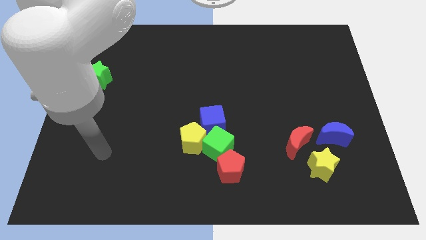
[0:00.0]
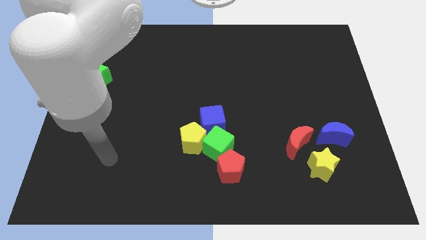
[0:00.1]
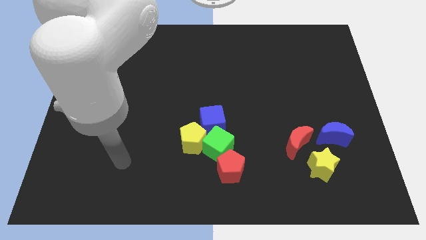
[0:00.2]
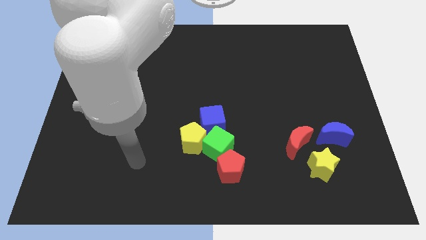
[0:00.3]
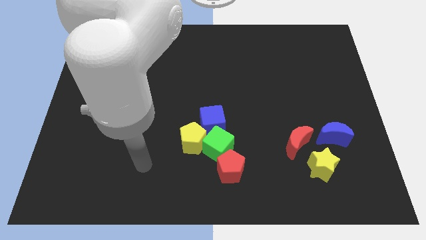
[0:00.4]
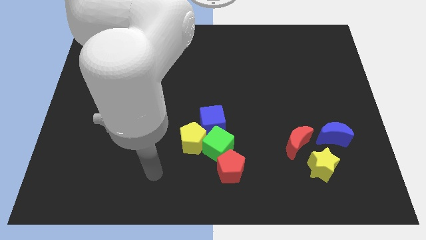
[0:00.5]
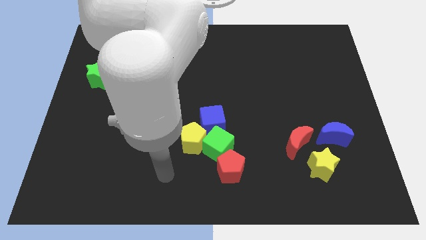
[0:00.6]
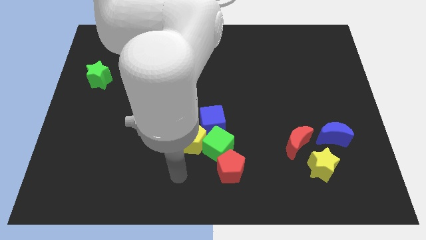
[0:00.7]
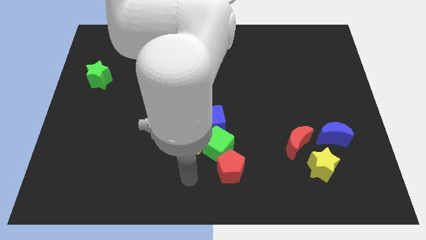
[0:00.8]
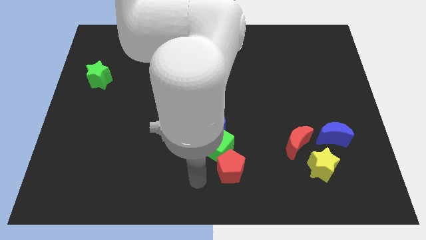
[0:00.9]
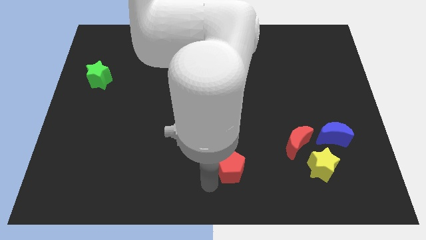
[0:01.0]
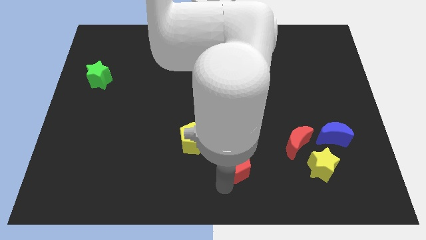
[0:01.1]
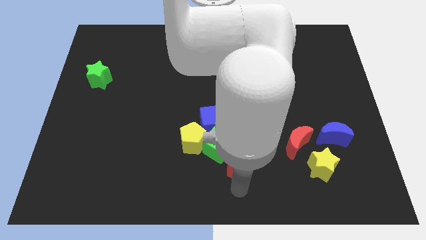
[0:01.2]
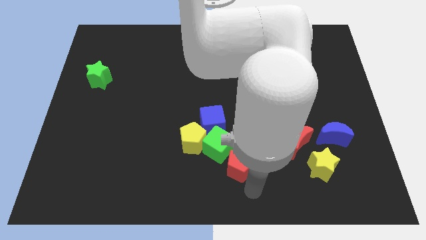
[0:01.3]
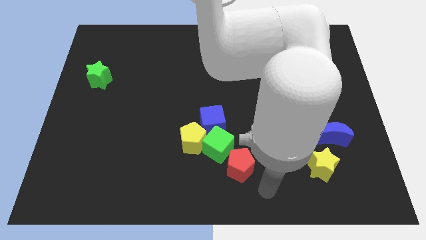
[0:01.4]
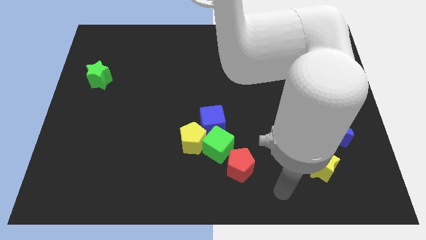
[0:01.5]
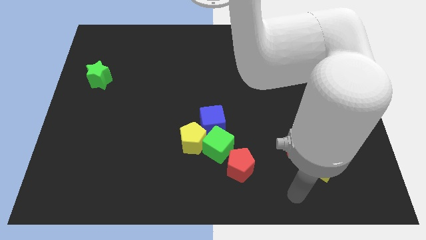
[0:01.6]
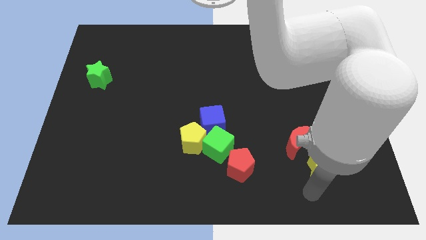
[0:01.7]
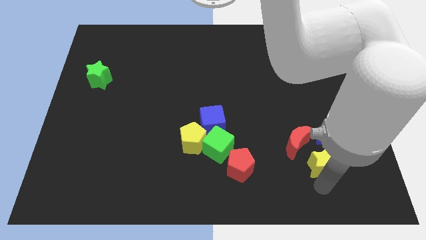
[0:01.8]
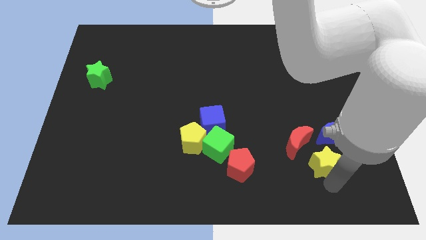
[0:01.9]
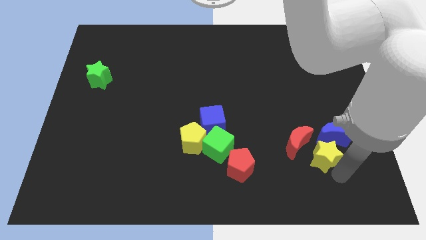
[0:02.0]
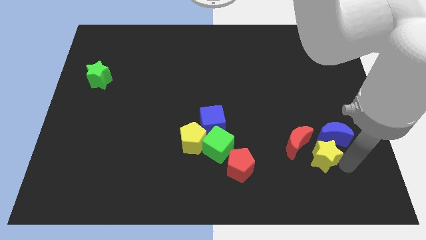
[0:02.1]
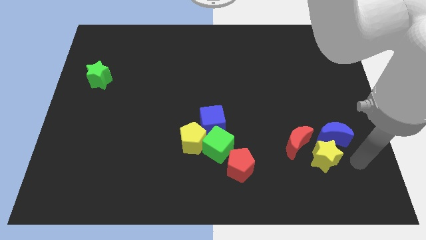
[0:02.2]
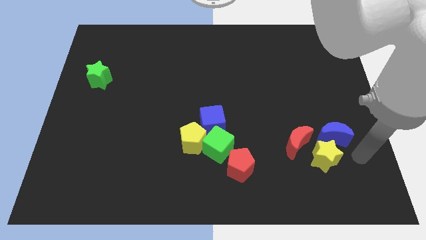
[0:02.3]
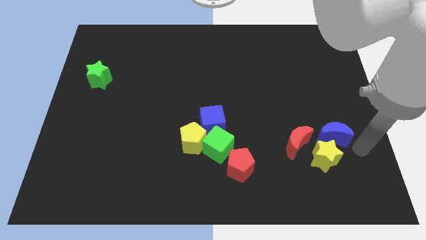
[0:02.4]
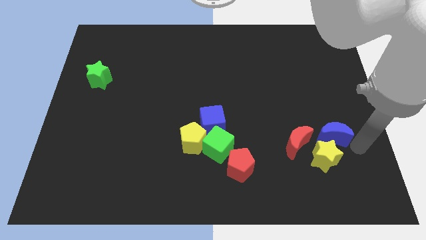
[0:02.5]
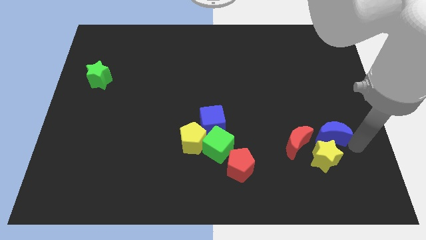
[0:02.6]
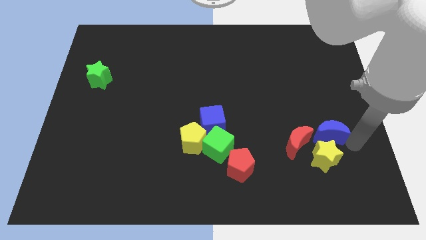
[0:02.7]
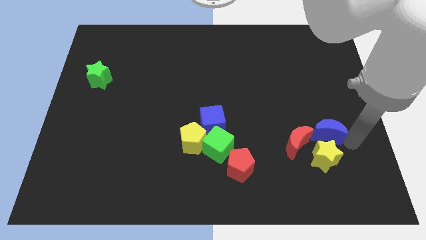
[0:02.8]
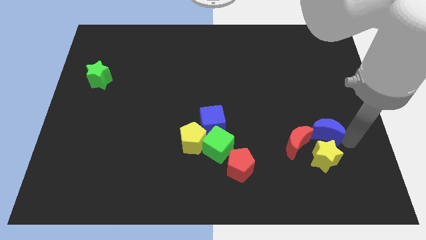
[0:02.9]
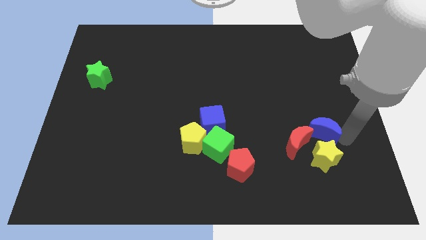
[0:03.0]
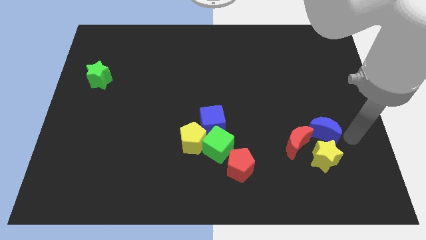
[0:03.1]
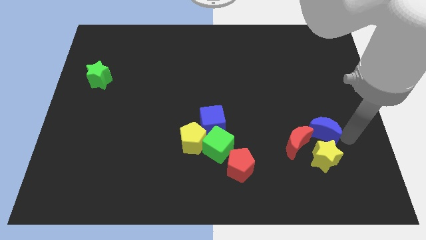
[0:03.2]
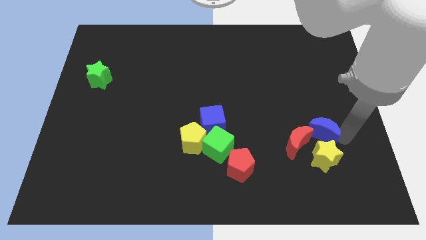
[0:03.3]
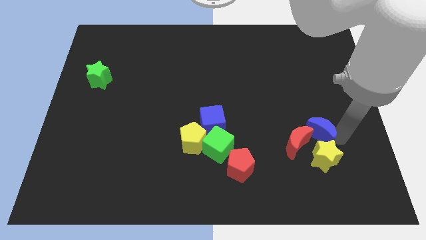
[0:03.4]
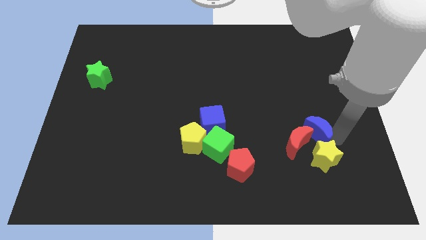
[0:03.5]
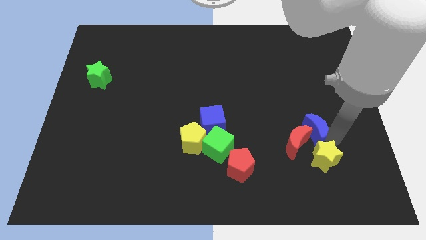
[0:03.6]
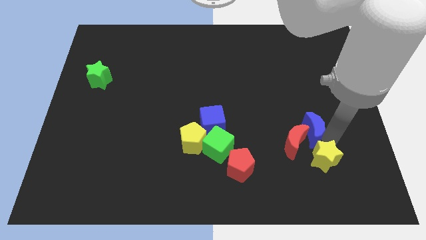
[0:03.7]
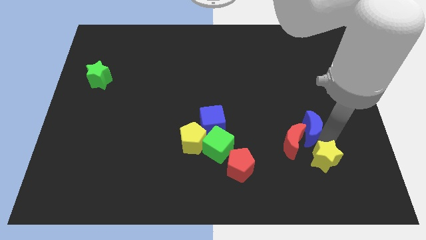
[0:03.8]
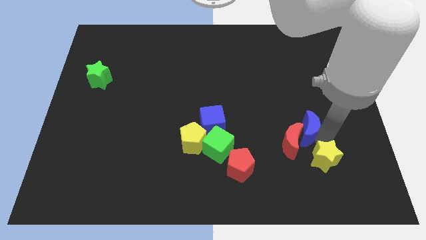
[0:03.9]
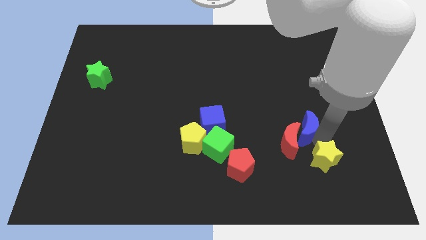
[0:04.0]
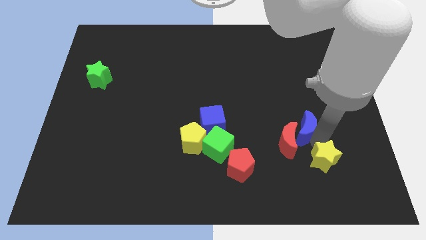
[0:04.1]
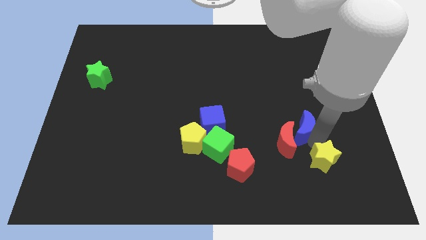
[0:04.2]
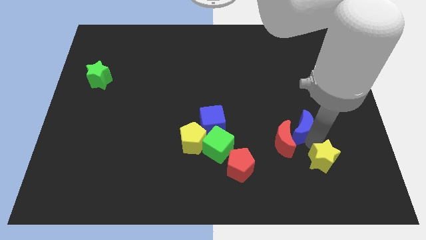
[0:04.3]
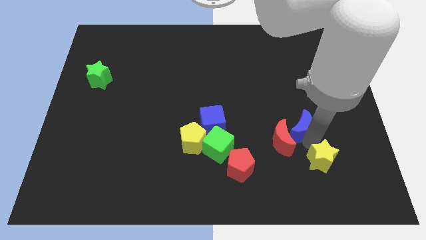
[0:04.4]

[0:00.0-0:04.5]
slightly move the blue moon to the left

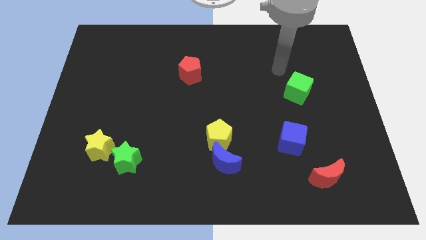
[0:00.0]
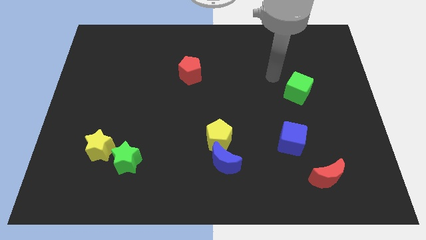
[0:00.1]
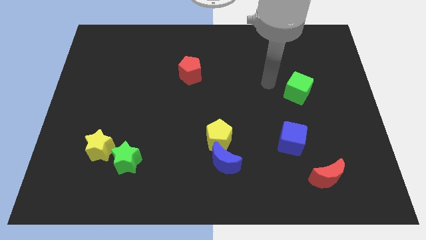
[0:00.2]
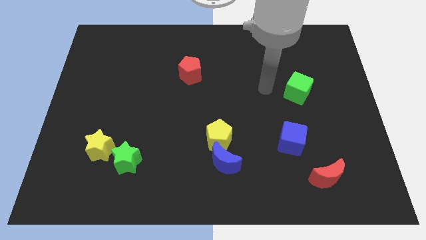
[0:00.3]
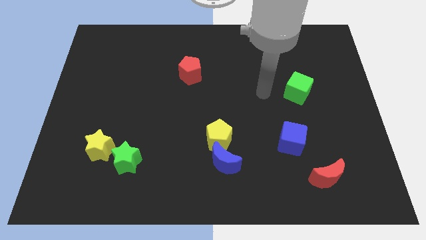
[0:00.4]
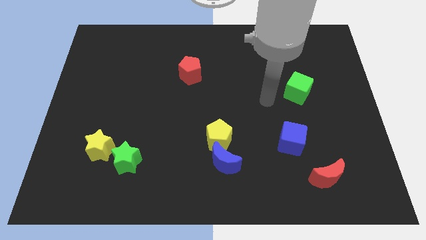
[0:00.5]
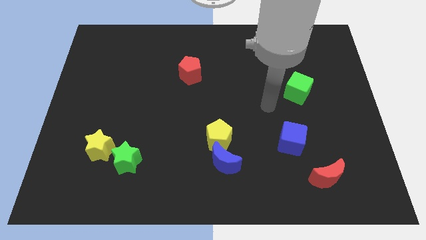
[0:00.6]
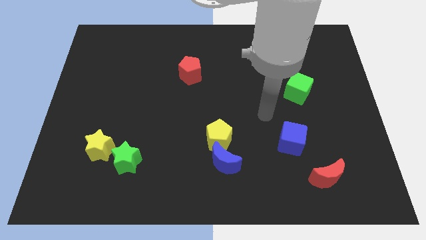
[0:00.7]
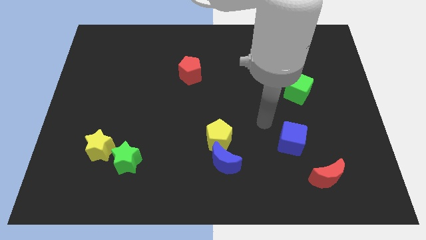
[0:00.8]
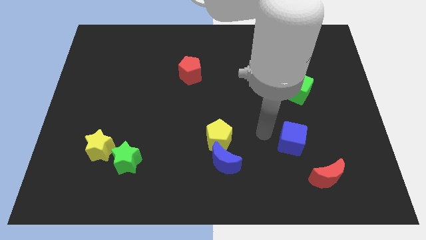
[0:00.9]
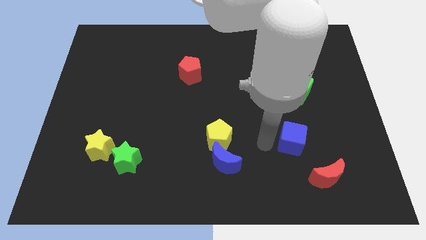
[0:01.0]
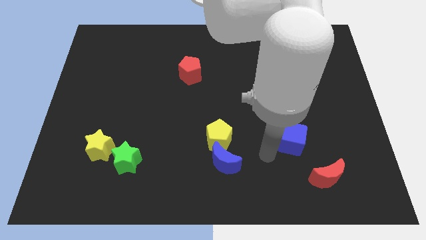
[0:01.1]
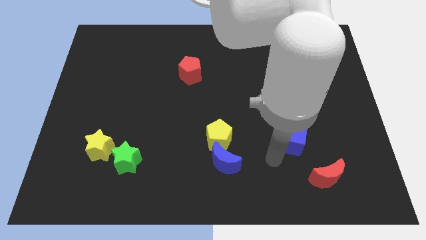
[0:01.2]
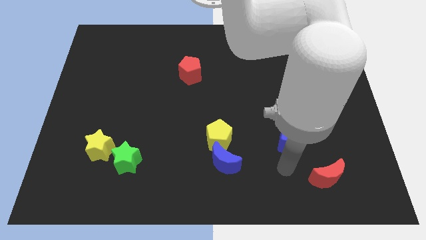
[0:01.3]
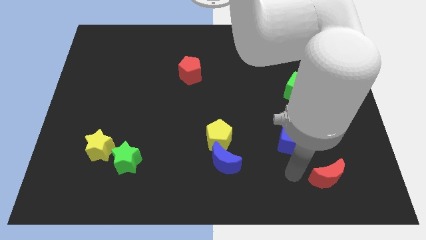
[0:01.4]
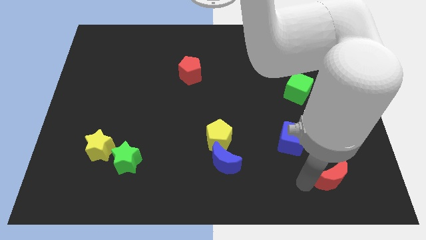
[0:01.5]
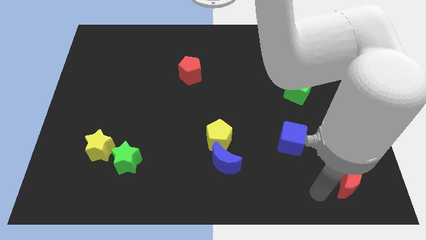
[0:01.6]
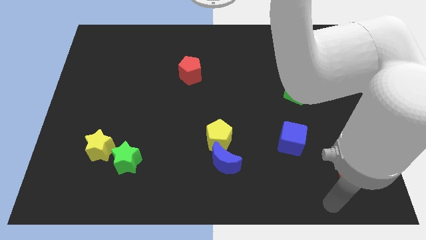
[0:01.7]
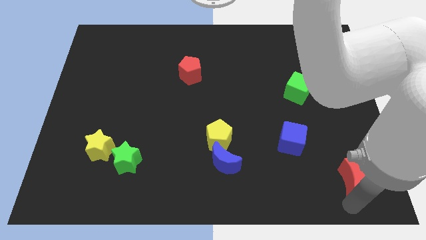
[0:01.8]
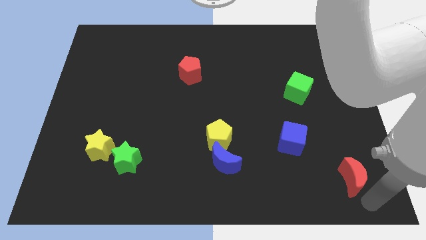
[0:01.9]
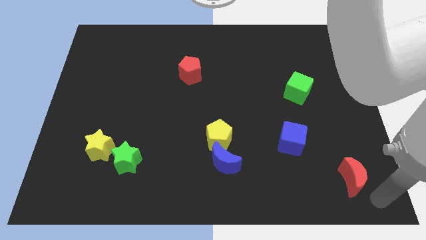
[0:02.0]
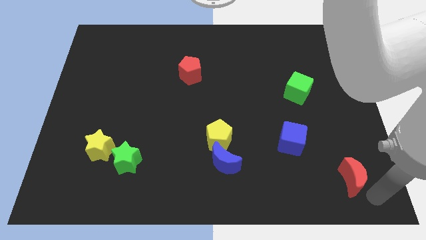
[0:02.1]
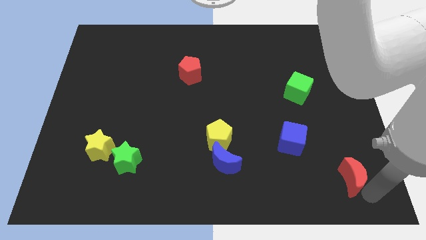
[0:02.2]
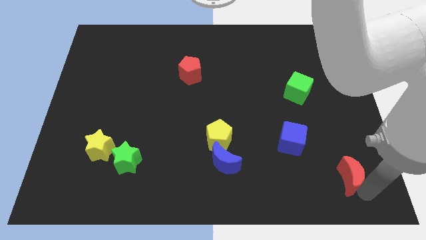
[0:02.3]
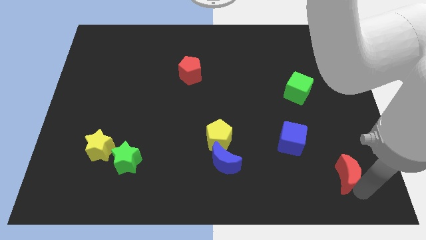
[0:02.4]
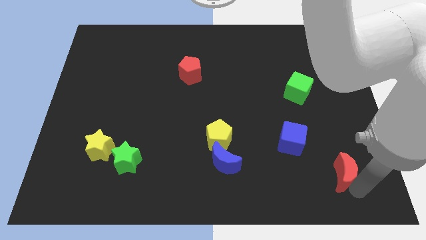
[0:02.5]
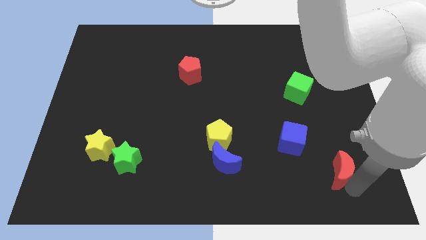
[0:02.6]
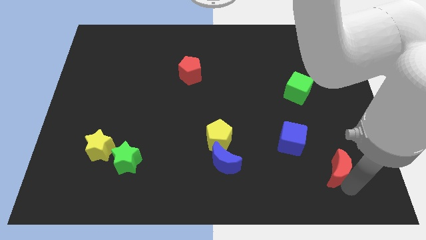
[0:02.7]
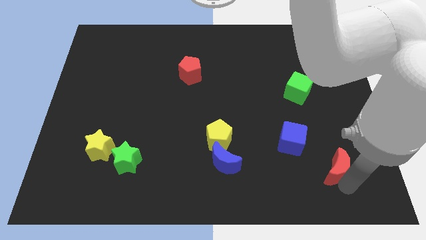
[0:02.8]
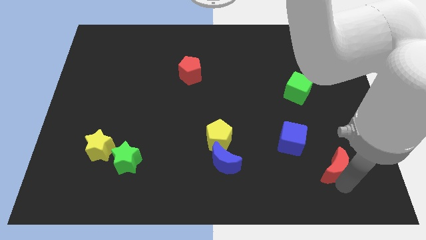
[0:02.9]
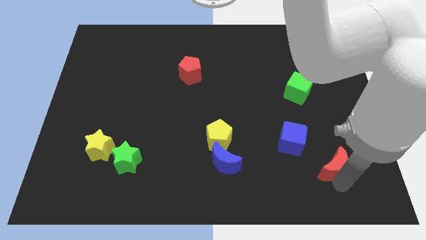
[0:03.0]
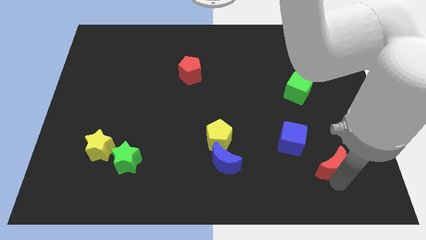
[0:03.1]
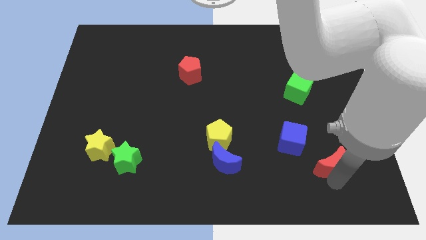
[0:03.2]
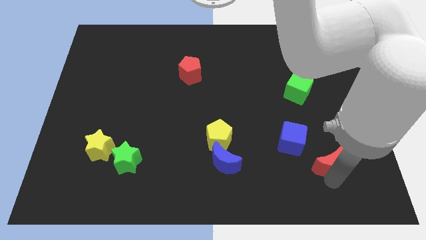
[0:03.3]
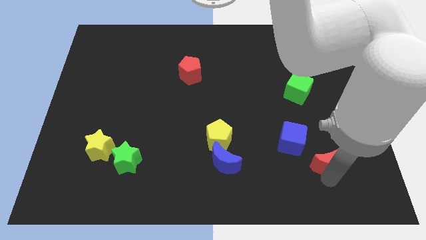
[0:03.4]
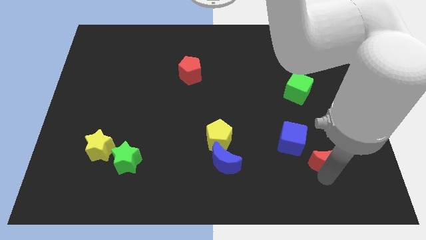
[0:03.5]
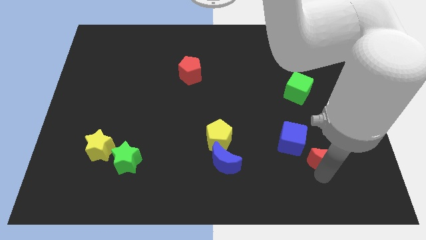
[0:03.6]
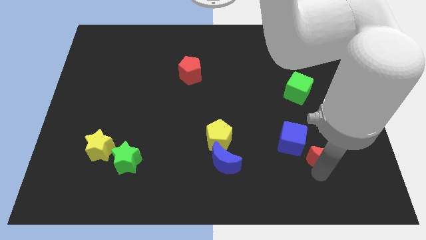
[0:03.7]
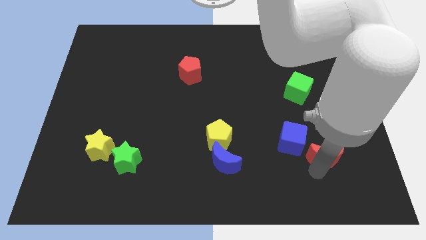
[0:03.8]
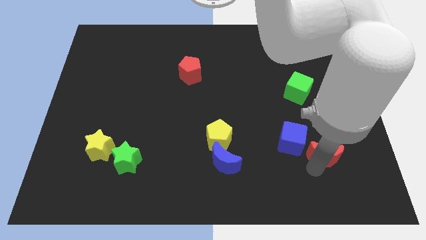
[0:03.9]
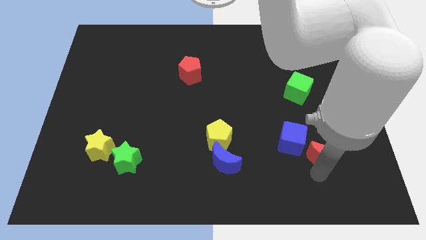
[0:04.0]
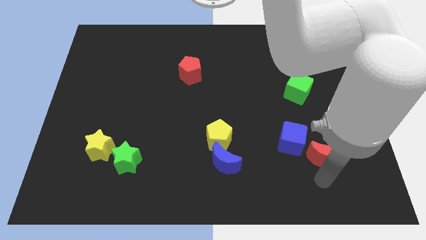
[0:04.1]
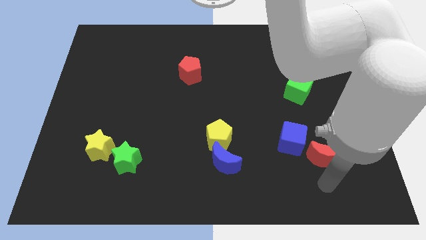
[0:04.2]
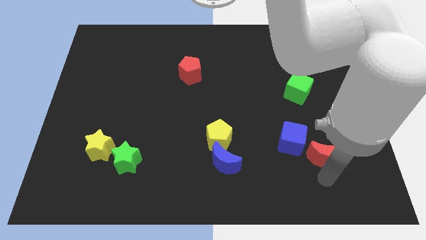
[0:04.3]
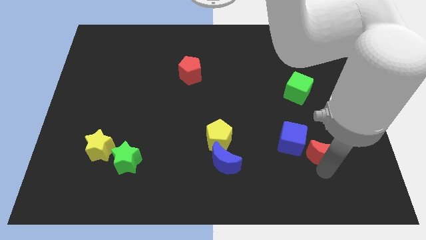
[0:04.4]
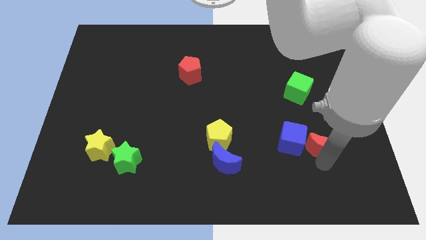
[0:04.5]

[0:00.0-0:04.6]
slide the red moon slightly up
